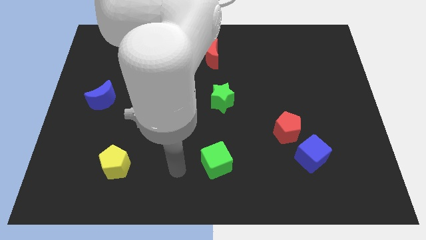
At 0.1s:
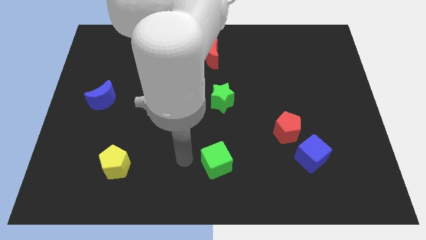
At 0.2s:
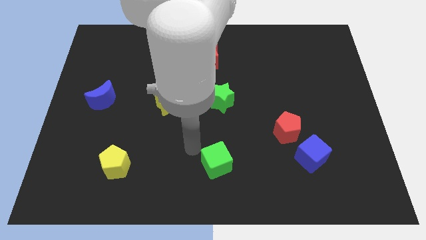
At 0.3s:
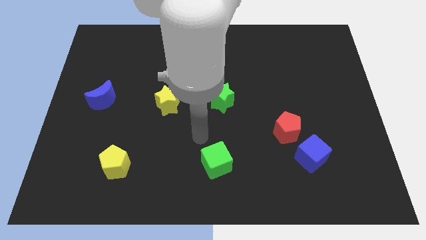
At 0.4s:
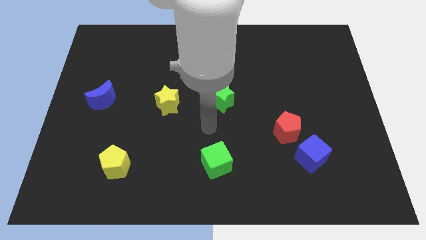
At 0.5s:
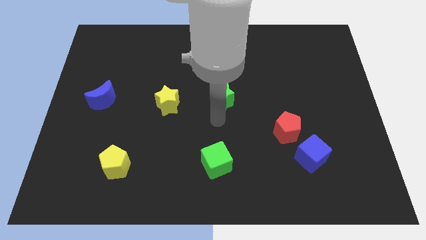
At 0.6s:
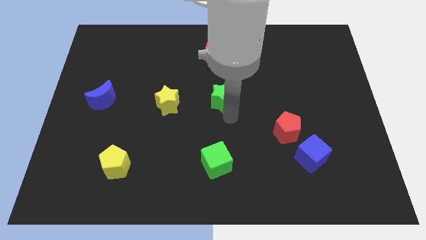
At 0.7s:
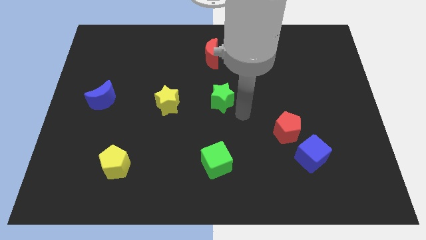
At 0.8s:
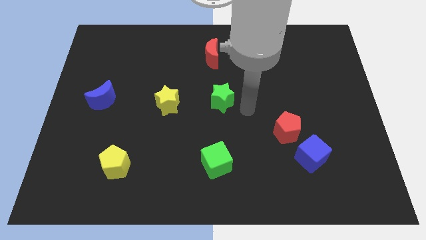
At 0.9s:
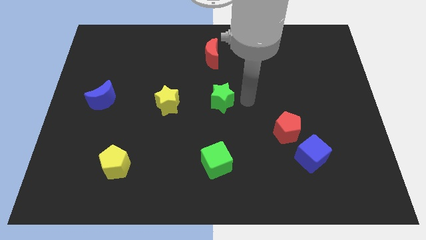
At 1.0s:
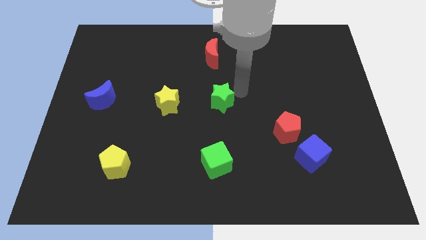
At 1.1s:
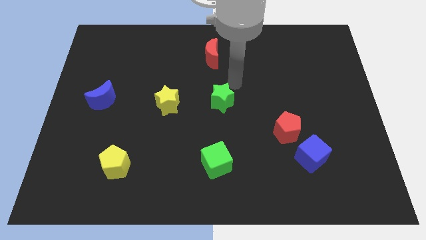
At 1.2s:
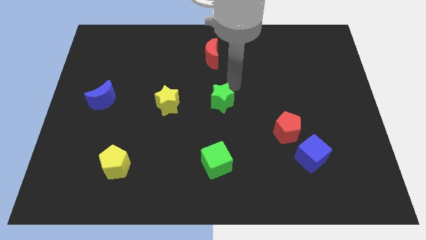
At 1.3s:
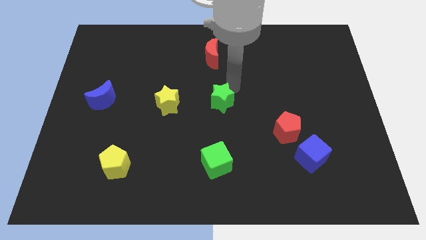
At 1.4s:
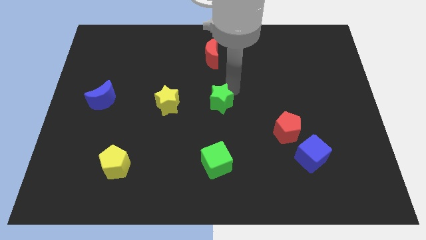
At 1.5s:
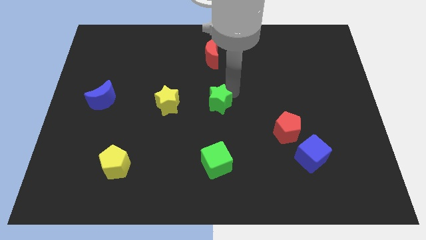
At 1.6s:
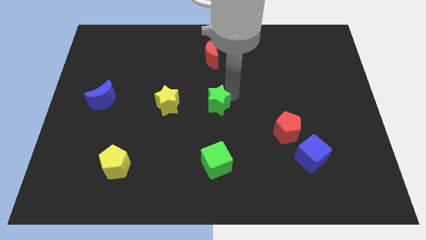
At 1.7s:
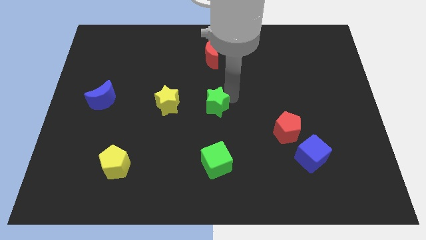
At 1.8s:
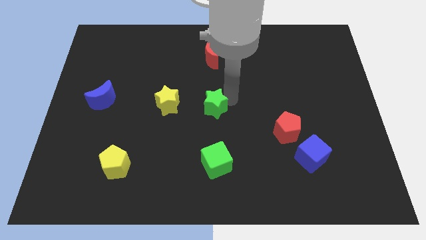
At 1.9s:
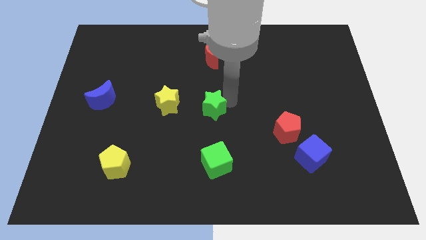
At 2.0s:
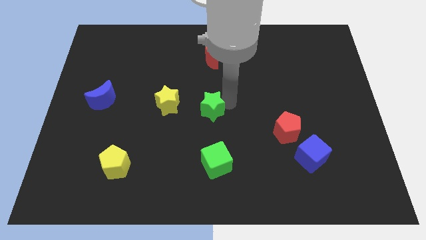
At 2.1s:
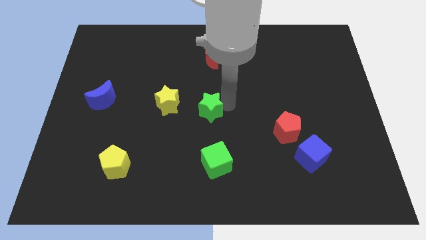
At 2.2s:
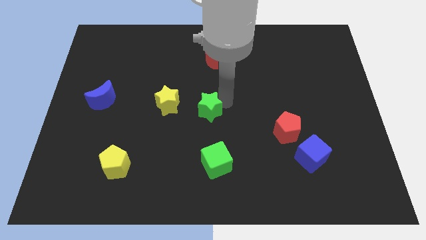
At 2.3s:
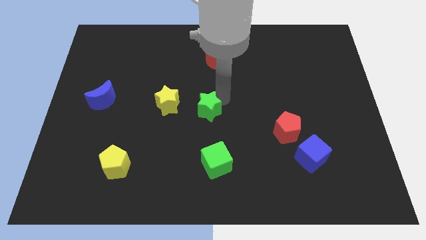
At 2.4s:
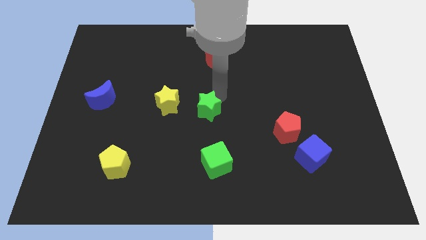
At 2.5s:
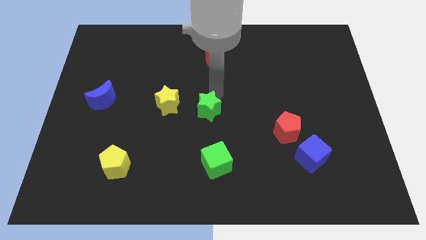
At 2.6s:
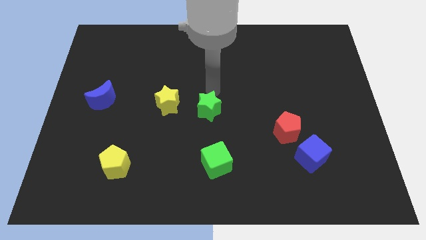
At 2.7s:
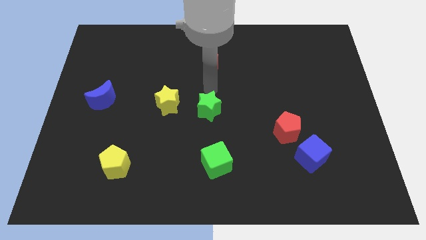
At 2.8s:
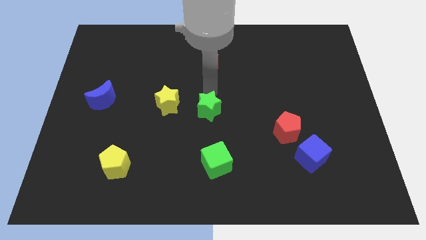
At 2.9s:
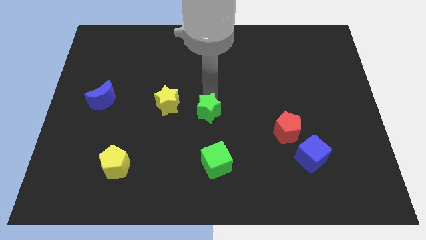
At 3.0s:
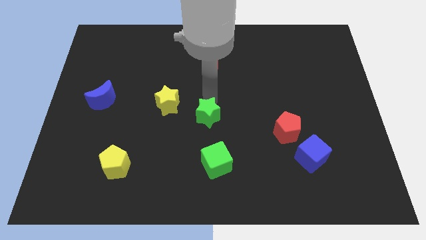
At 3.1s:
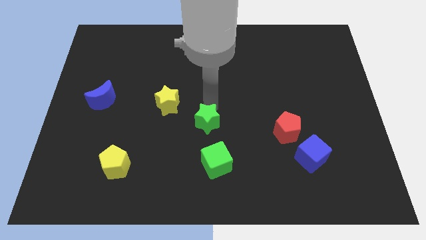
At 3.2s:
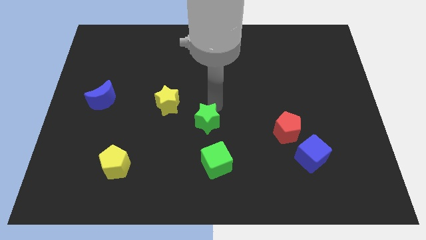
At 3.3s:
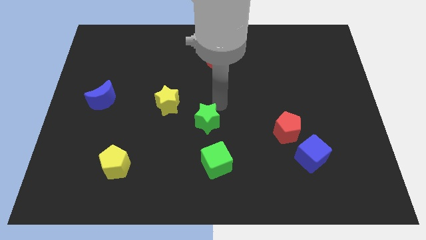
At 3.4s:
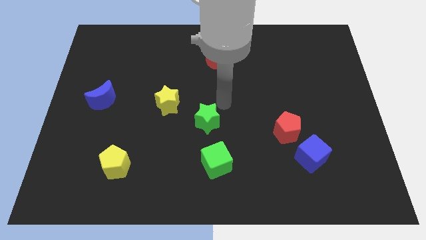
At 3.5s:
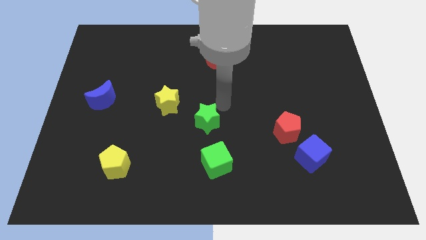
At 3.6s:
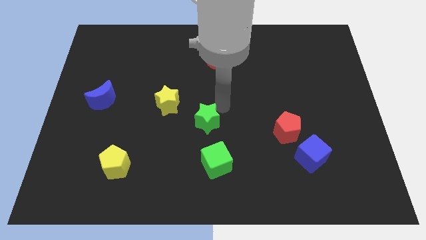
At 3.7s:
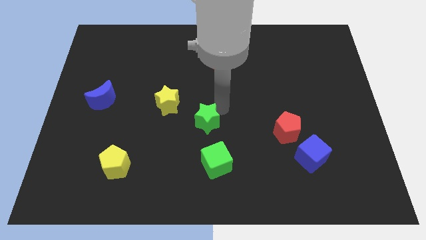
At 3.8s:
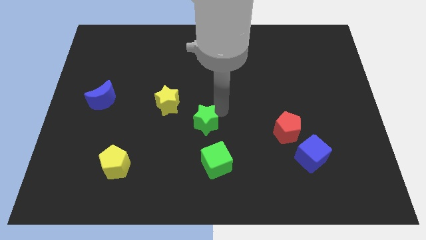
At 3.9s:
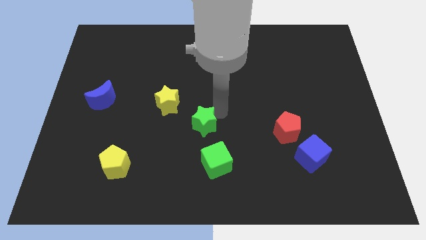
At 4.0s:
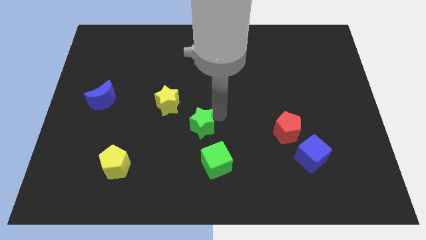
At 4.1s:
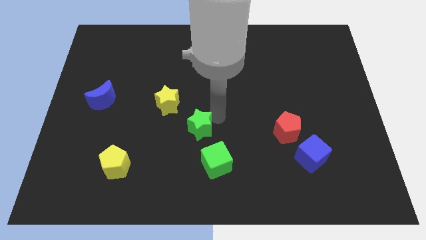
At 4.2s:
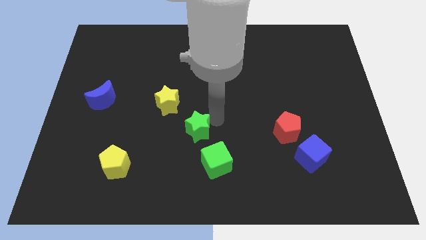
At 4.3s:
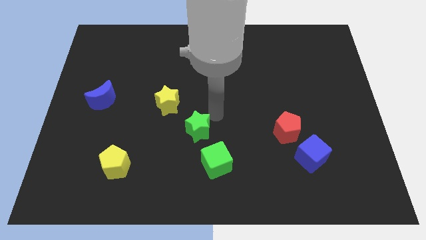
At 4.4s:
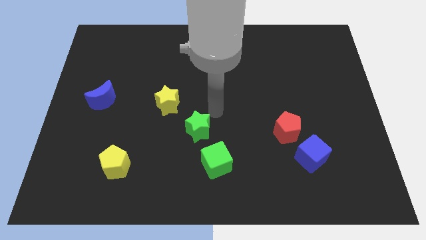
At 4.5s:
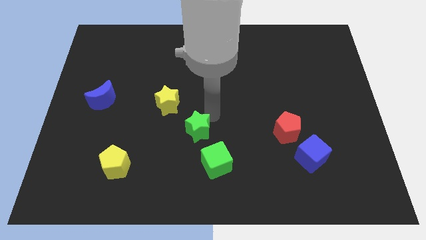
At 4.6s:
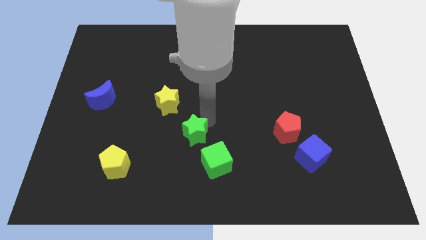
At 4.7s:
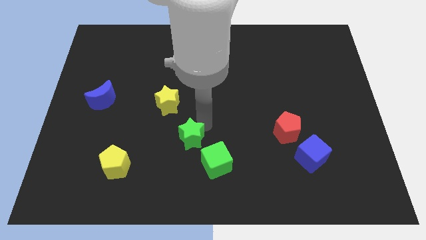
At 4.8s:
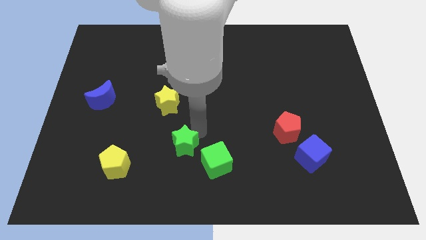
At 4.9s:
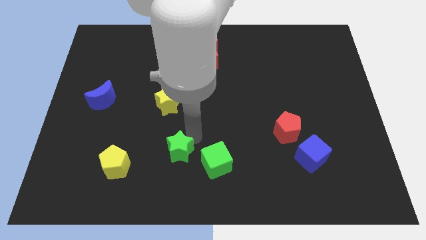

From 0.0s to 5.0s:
slide the green star just right of the yellow pentagon

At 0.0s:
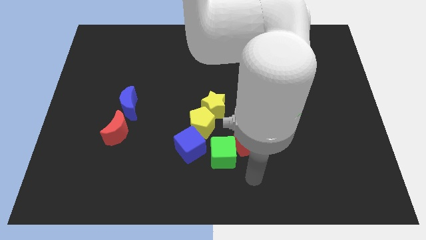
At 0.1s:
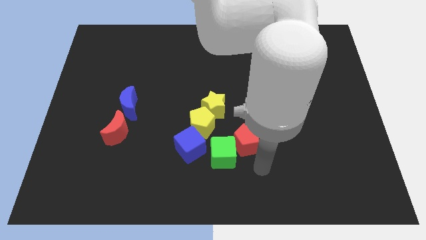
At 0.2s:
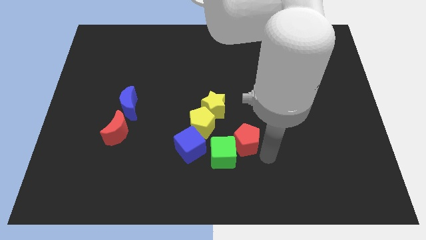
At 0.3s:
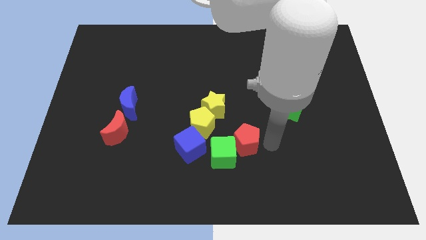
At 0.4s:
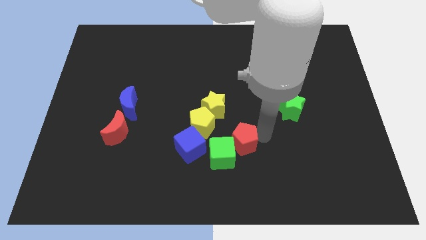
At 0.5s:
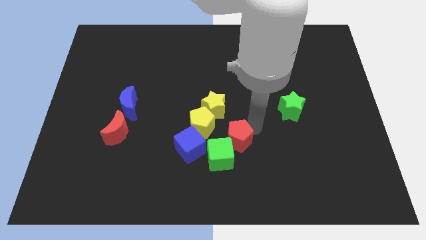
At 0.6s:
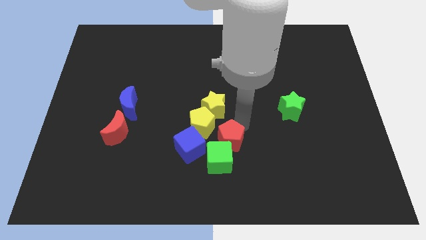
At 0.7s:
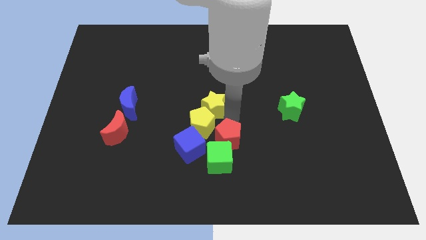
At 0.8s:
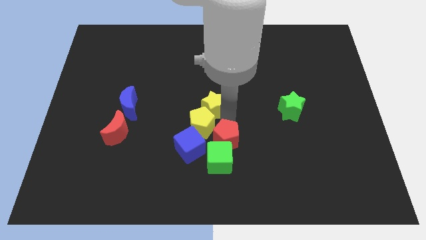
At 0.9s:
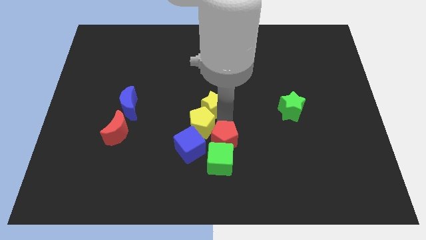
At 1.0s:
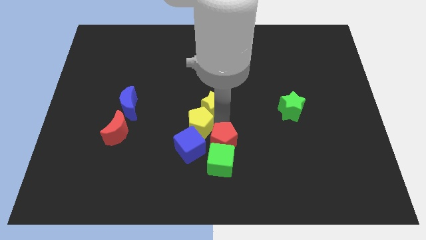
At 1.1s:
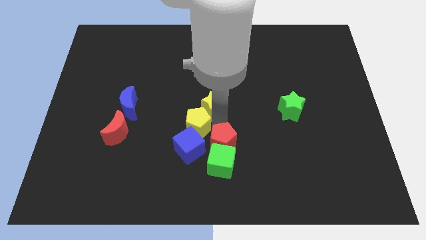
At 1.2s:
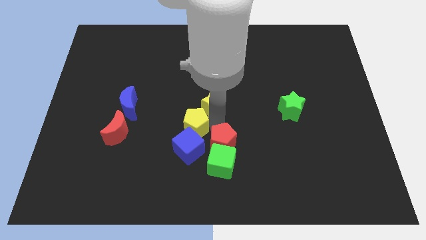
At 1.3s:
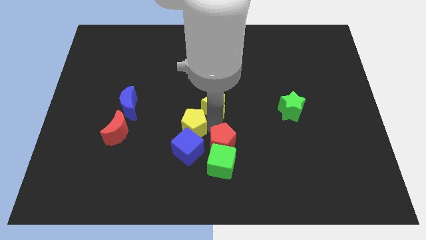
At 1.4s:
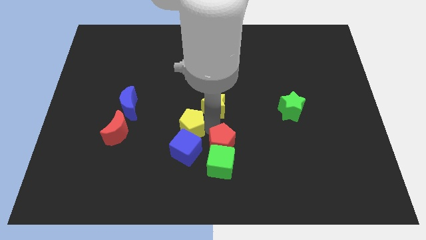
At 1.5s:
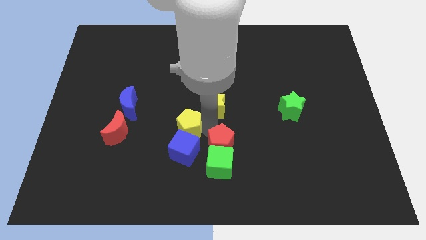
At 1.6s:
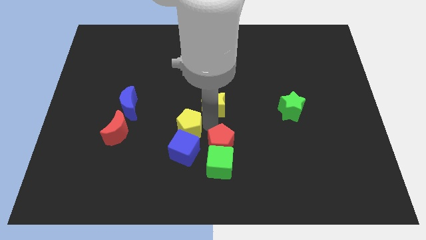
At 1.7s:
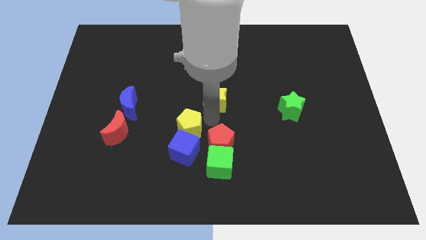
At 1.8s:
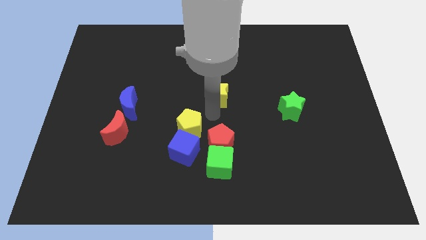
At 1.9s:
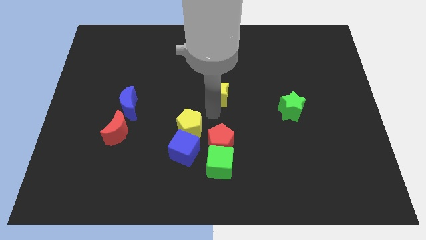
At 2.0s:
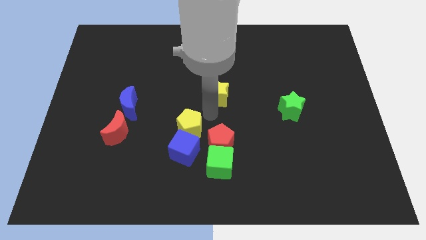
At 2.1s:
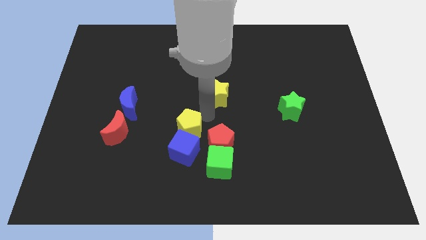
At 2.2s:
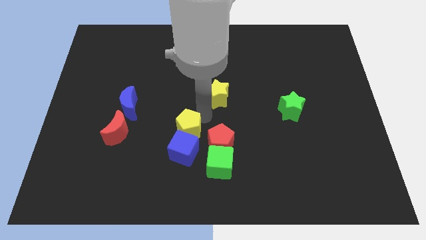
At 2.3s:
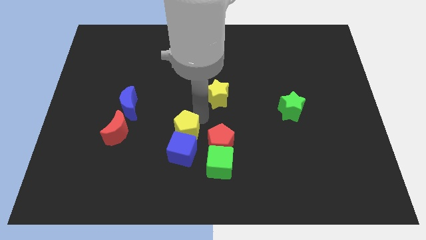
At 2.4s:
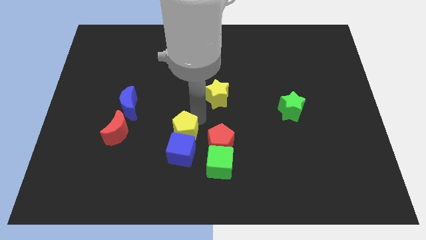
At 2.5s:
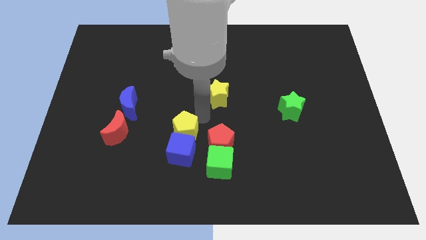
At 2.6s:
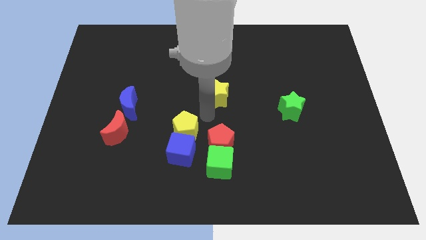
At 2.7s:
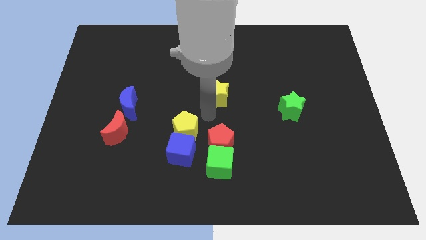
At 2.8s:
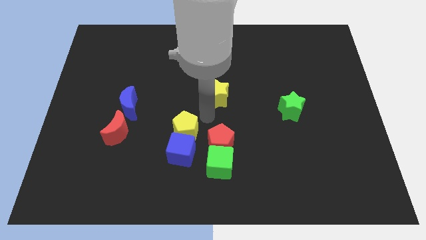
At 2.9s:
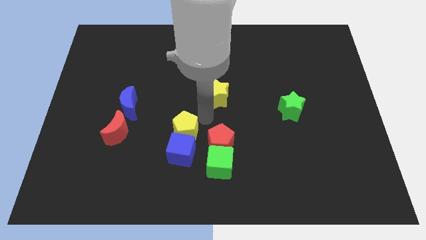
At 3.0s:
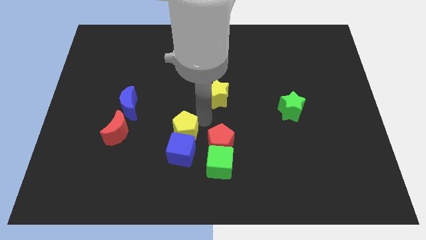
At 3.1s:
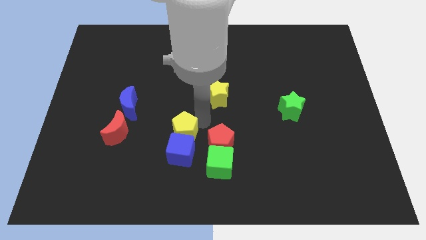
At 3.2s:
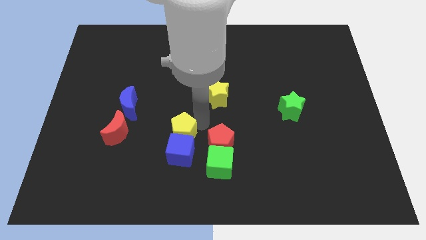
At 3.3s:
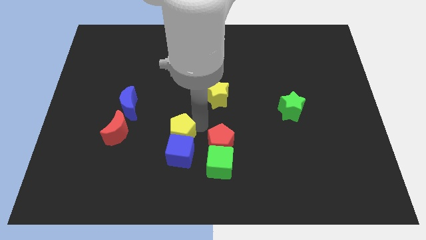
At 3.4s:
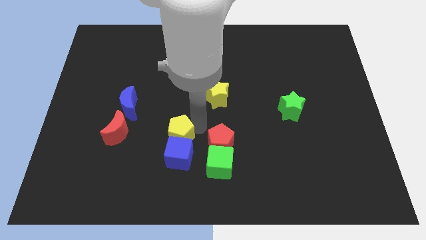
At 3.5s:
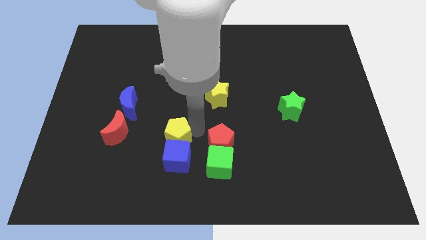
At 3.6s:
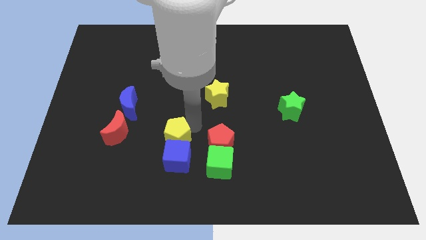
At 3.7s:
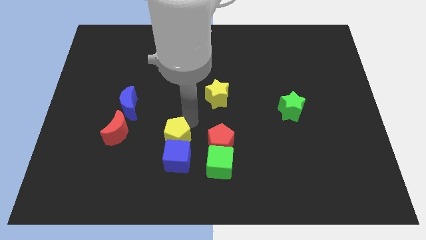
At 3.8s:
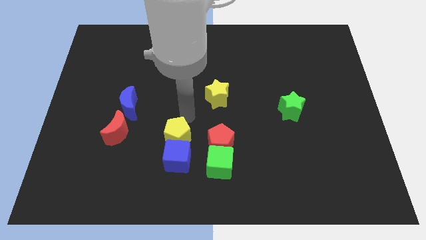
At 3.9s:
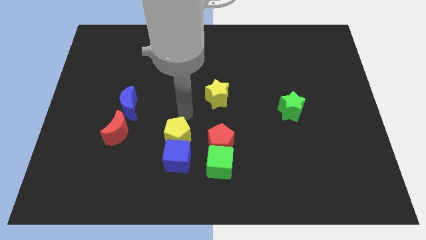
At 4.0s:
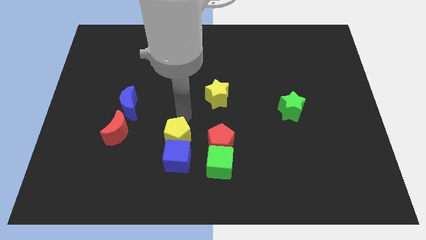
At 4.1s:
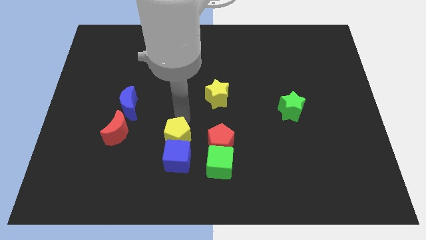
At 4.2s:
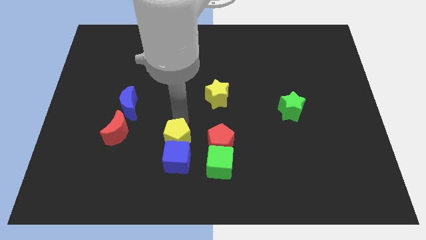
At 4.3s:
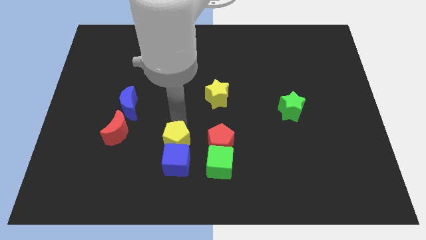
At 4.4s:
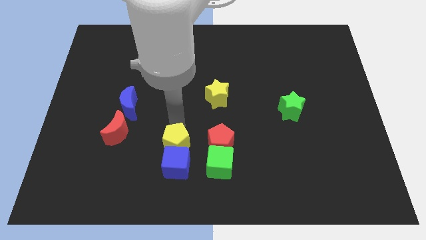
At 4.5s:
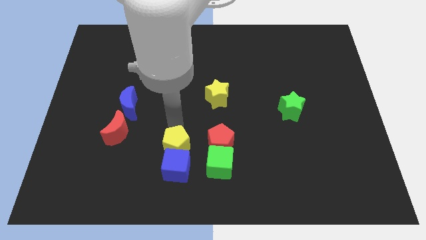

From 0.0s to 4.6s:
push the yellow pentagon just left of the green cube
